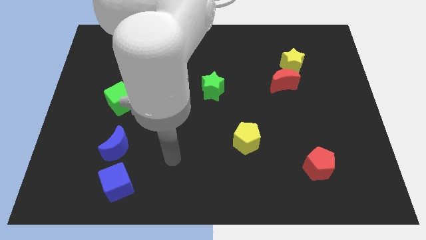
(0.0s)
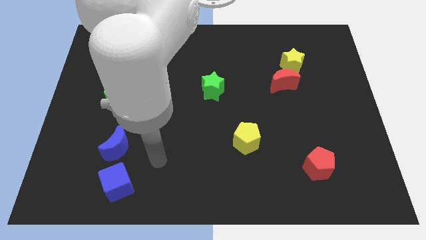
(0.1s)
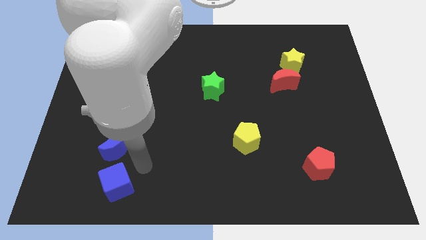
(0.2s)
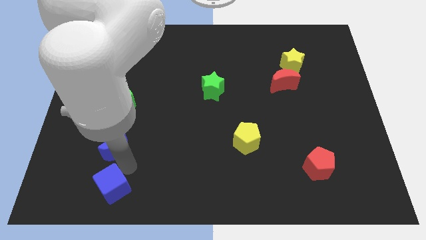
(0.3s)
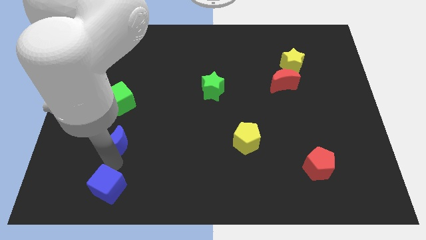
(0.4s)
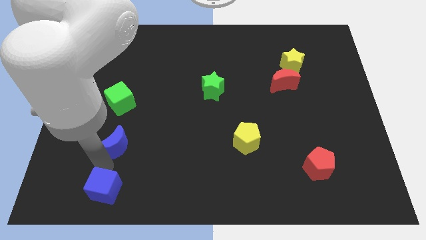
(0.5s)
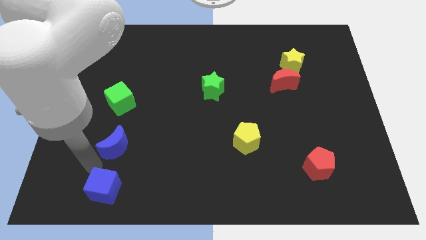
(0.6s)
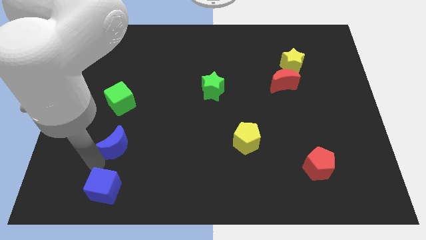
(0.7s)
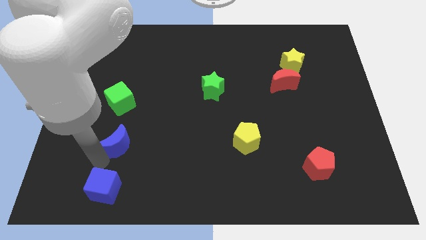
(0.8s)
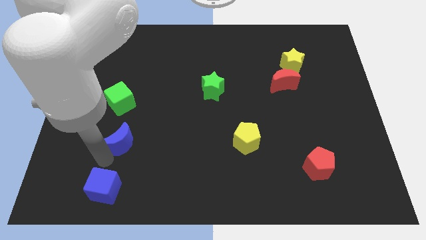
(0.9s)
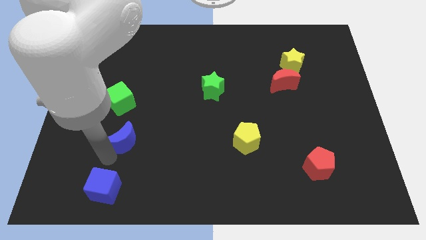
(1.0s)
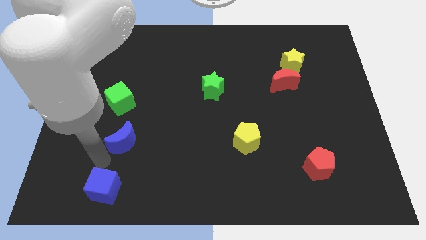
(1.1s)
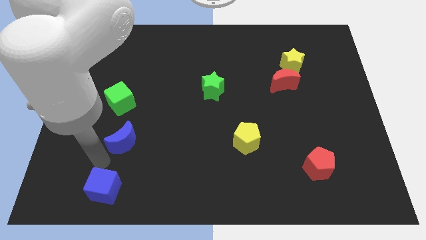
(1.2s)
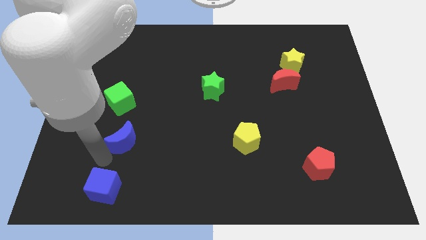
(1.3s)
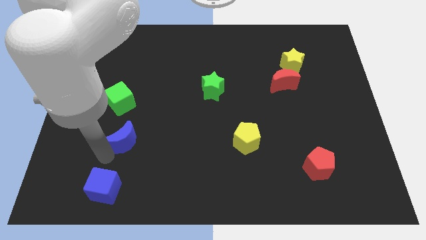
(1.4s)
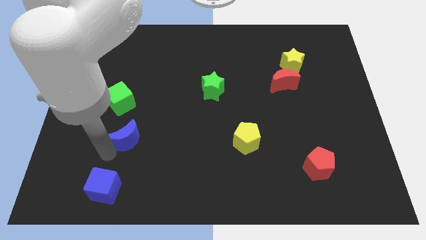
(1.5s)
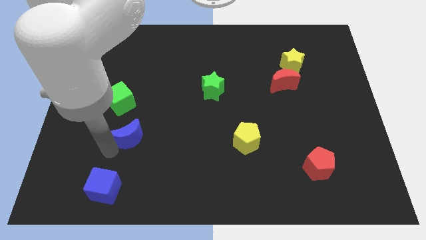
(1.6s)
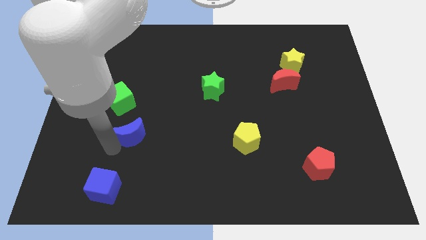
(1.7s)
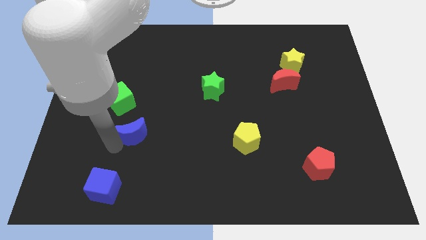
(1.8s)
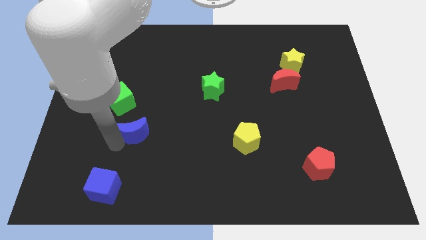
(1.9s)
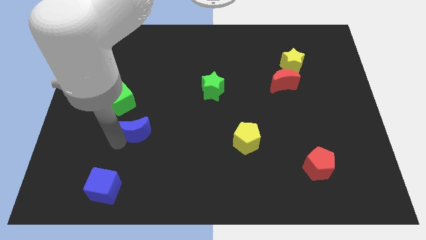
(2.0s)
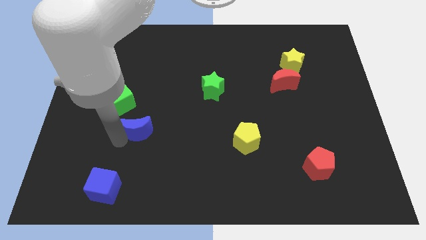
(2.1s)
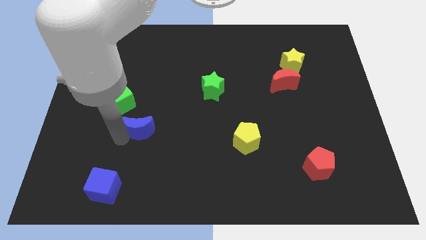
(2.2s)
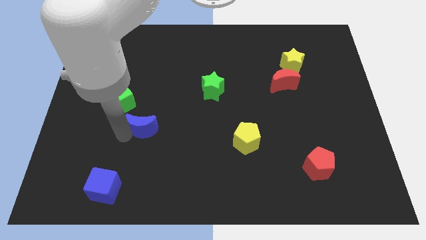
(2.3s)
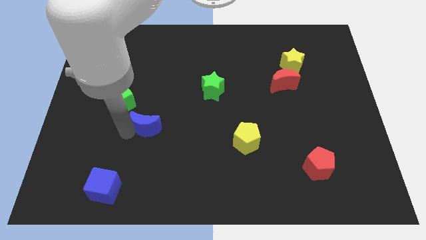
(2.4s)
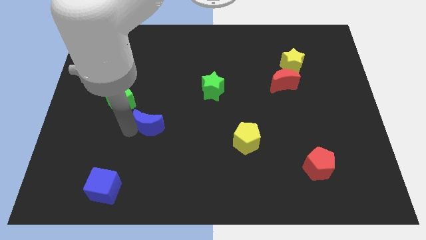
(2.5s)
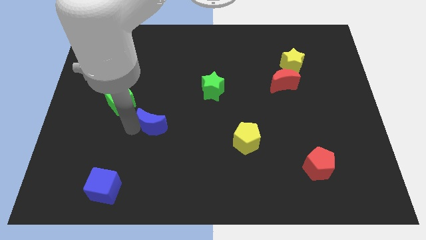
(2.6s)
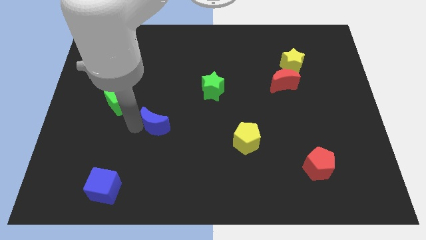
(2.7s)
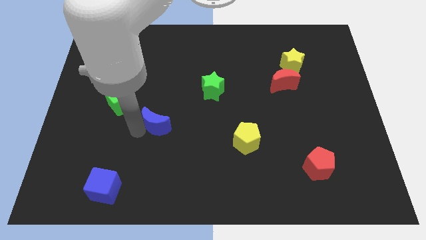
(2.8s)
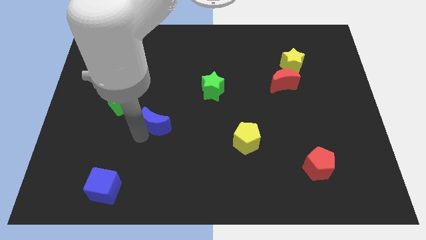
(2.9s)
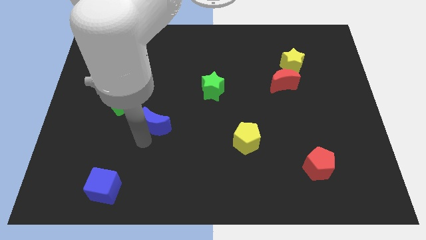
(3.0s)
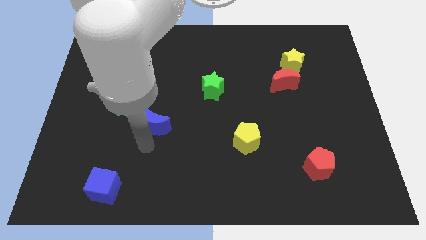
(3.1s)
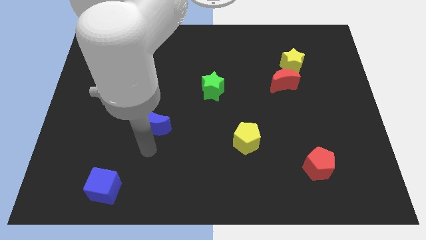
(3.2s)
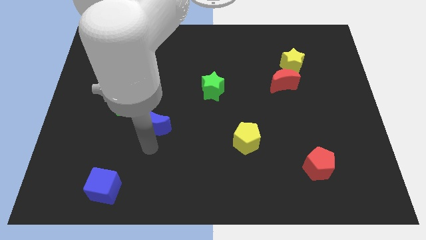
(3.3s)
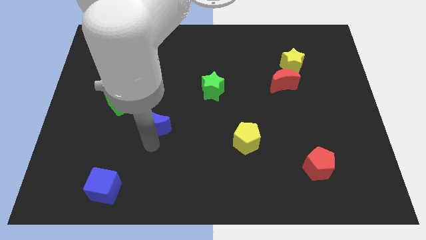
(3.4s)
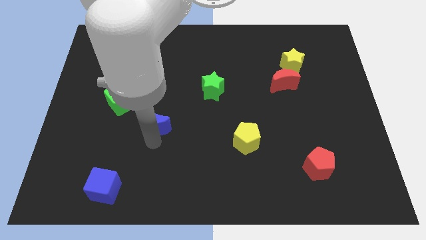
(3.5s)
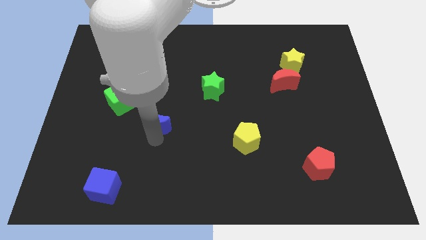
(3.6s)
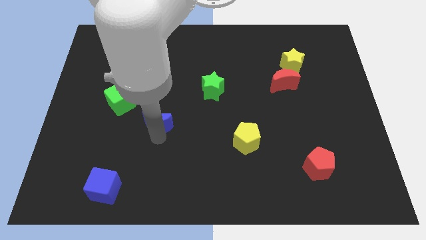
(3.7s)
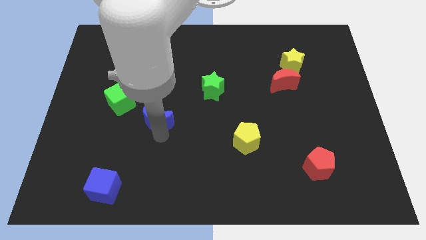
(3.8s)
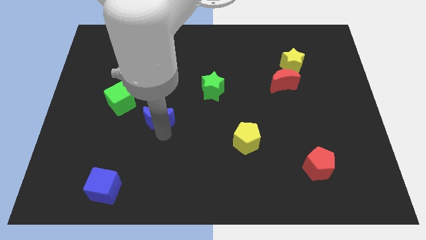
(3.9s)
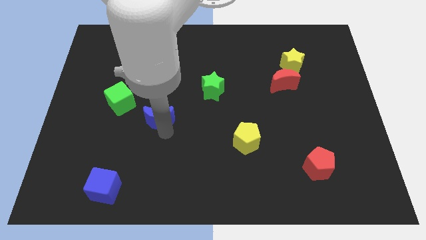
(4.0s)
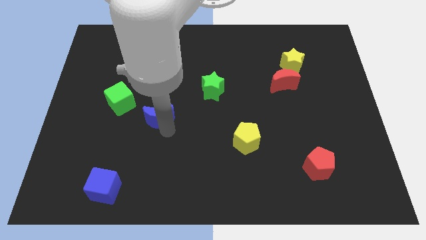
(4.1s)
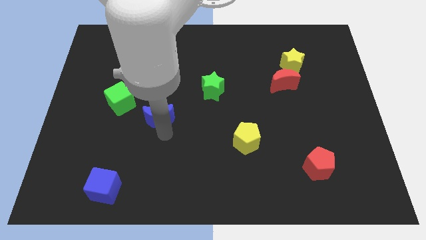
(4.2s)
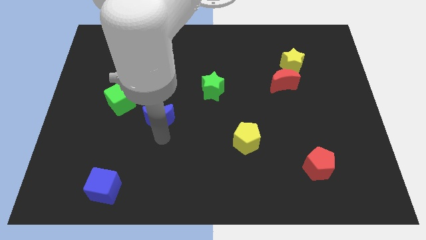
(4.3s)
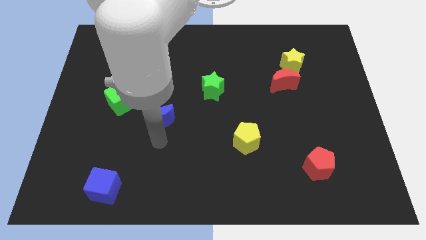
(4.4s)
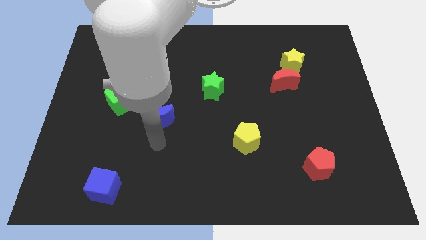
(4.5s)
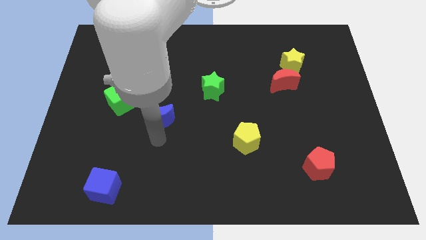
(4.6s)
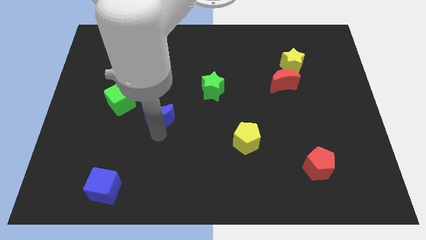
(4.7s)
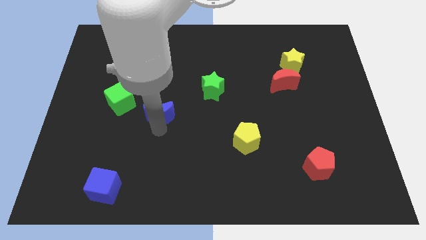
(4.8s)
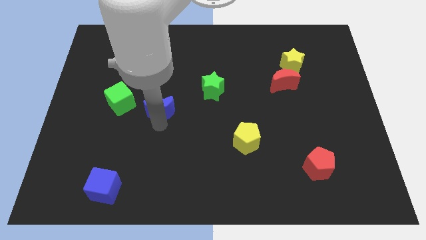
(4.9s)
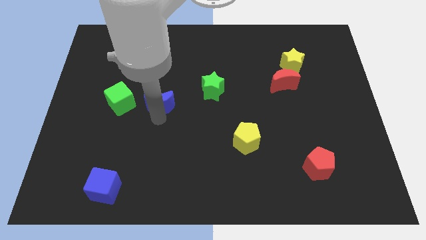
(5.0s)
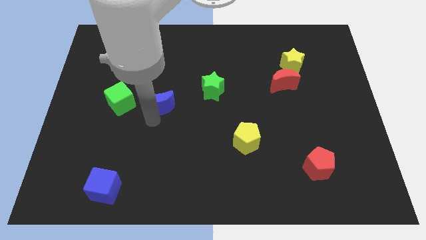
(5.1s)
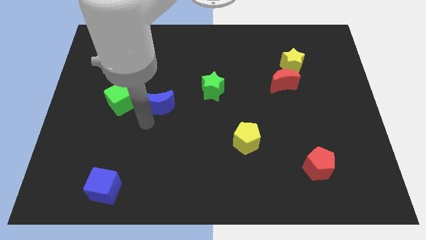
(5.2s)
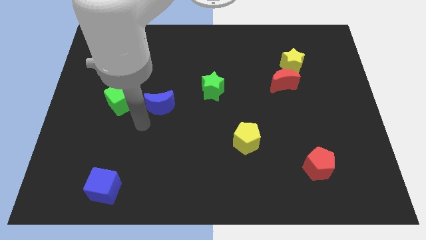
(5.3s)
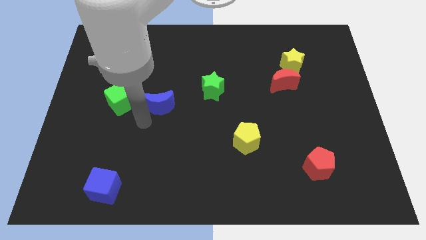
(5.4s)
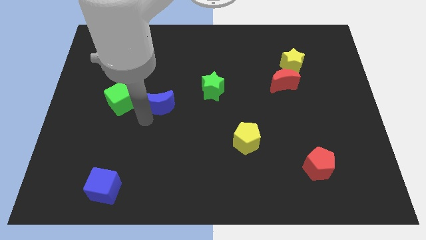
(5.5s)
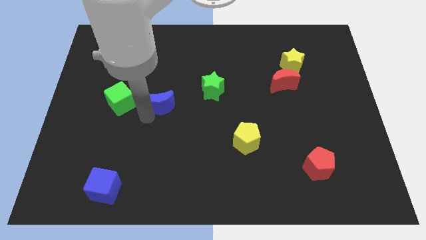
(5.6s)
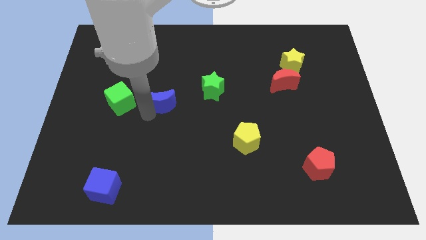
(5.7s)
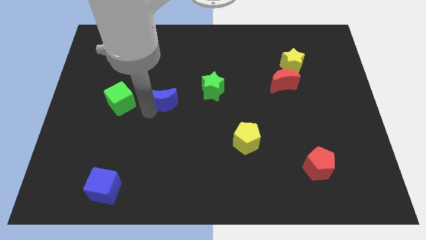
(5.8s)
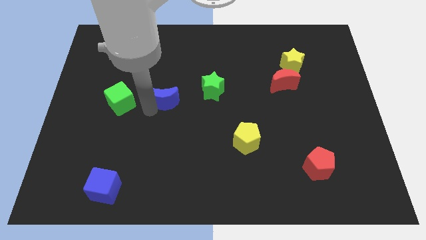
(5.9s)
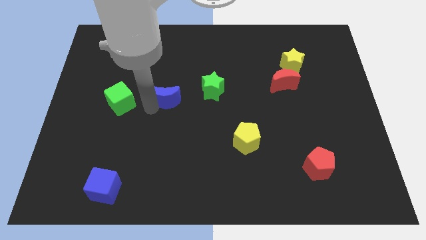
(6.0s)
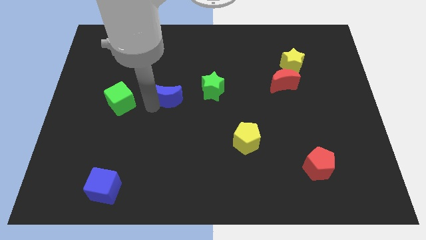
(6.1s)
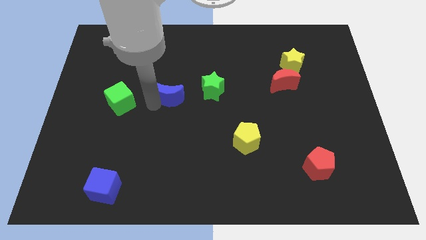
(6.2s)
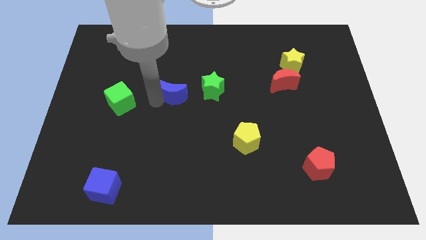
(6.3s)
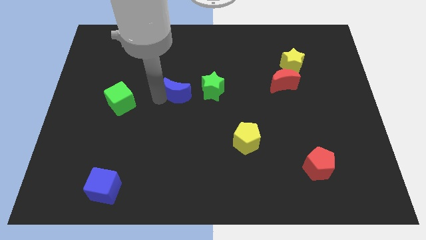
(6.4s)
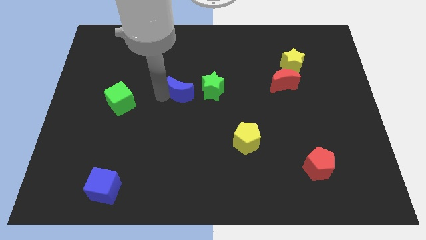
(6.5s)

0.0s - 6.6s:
push the blue moon up and to the right

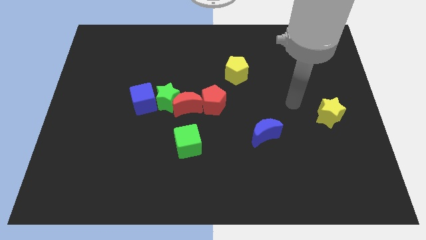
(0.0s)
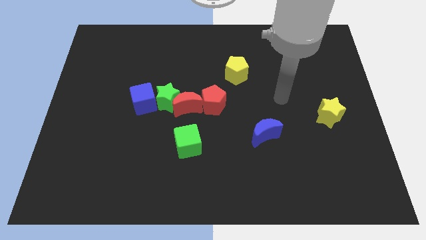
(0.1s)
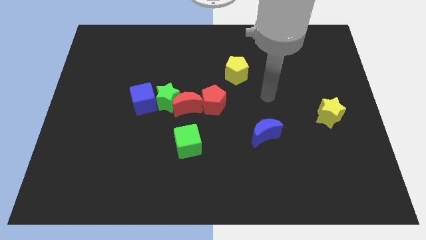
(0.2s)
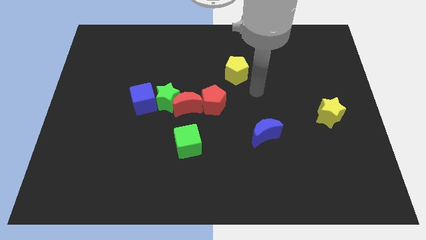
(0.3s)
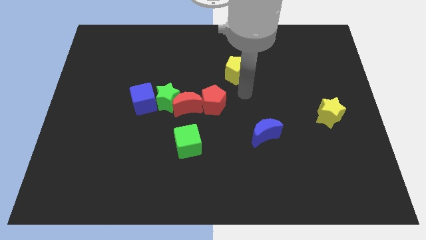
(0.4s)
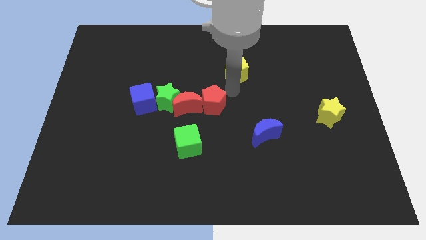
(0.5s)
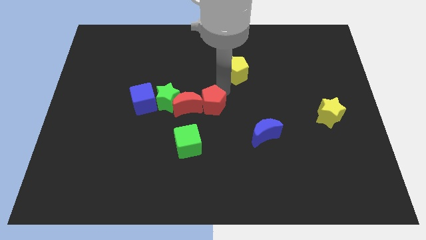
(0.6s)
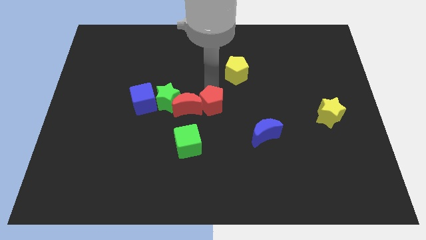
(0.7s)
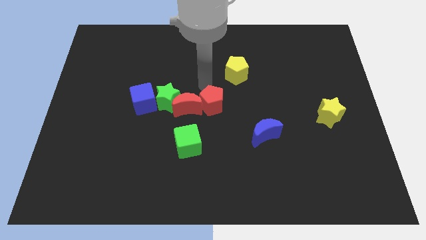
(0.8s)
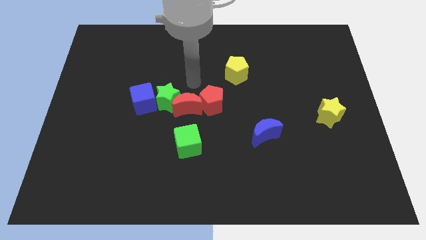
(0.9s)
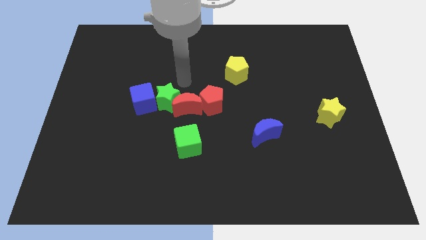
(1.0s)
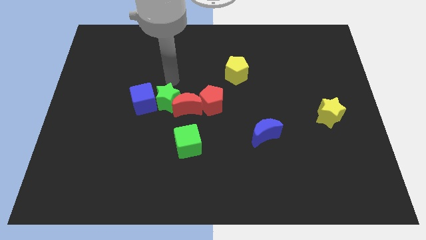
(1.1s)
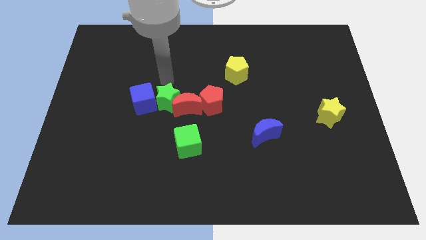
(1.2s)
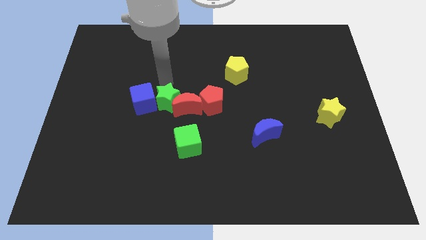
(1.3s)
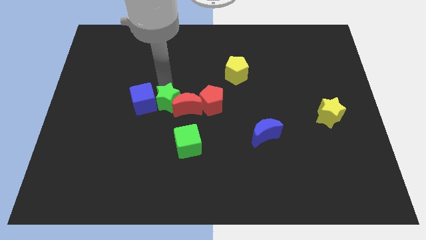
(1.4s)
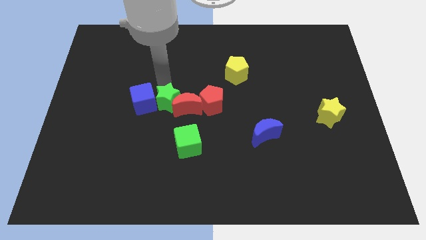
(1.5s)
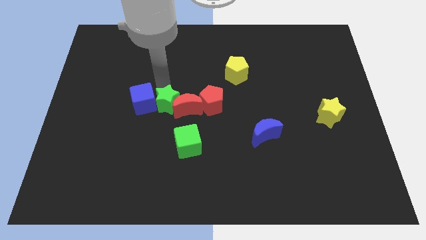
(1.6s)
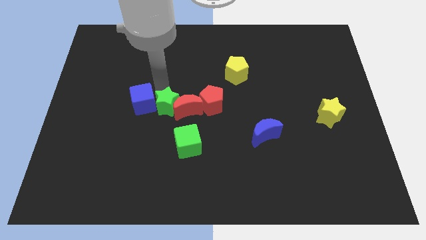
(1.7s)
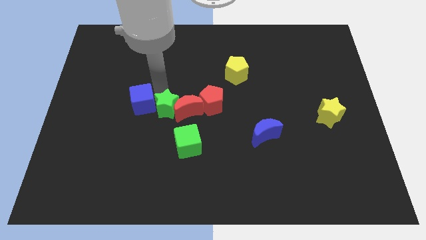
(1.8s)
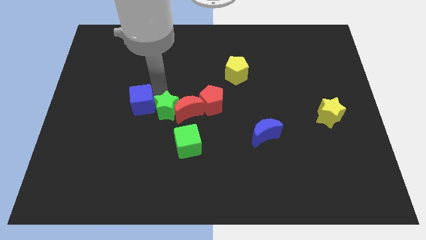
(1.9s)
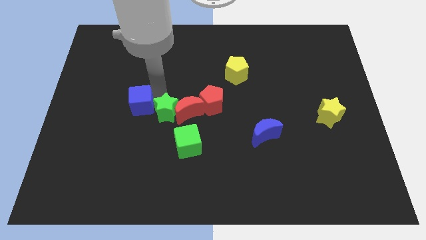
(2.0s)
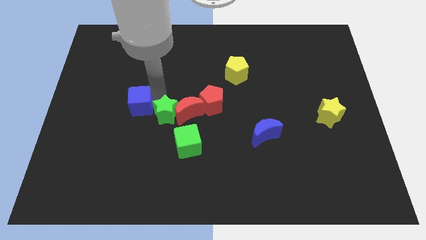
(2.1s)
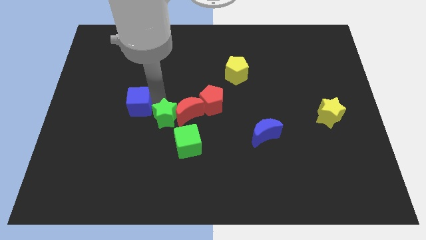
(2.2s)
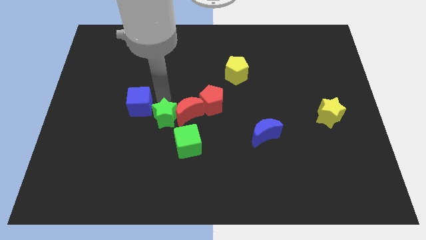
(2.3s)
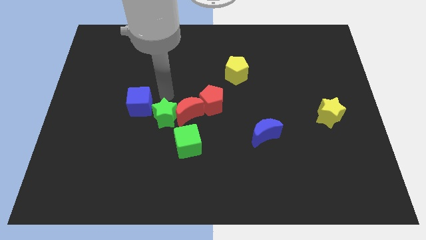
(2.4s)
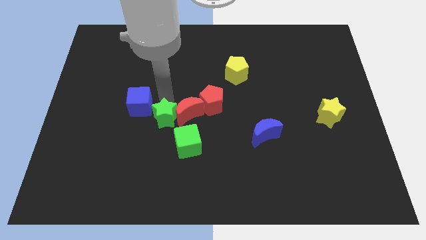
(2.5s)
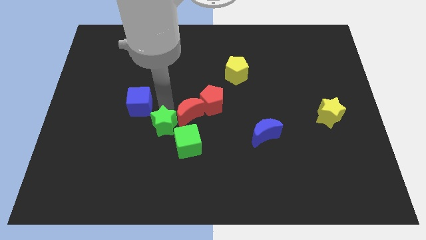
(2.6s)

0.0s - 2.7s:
slightly push the green star downwards
